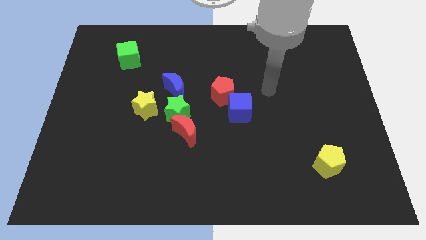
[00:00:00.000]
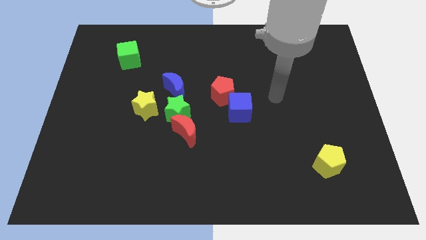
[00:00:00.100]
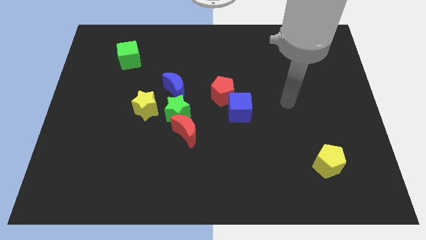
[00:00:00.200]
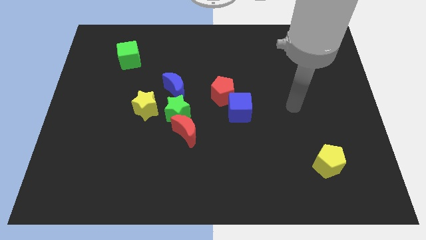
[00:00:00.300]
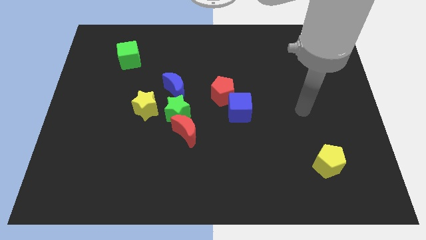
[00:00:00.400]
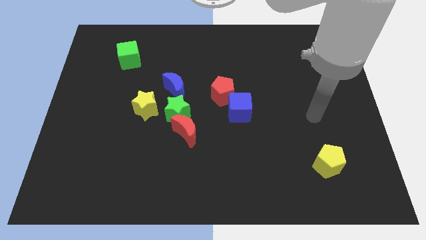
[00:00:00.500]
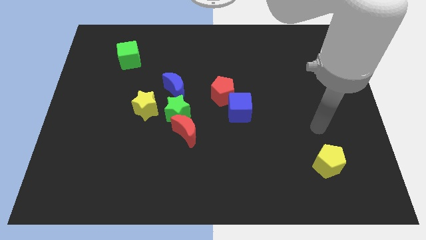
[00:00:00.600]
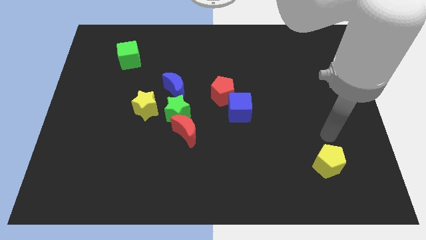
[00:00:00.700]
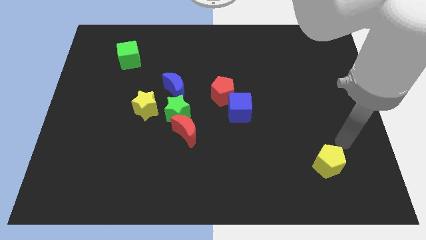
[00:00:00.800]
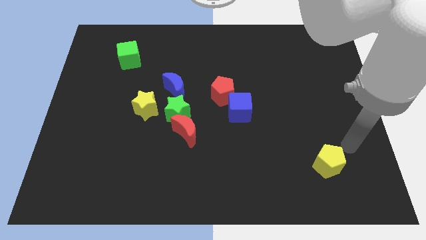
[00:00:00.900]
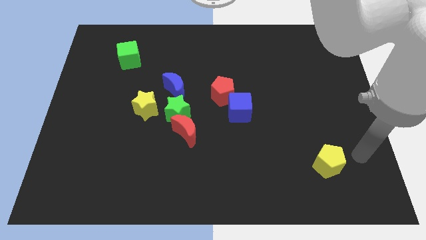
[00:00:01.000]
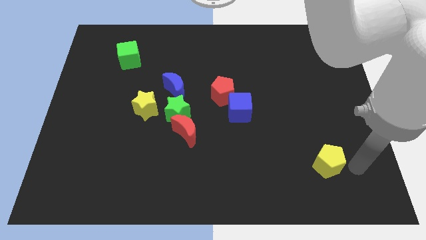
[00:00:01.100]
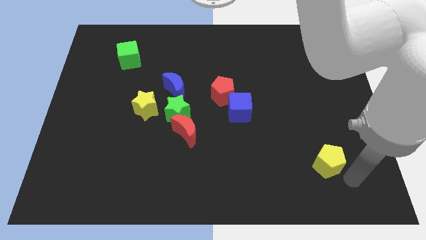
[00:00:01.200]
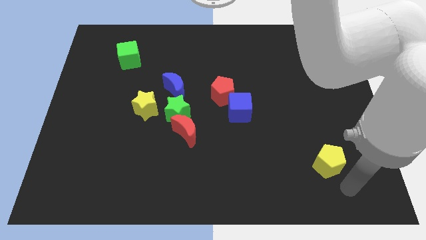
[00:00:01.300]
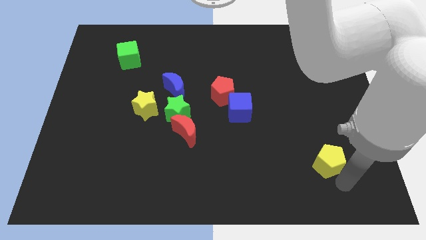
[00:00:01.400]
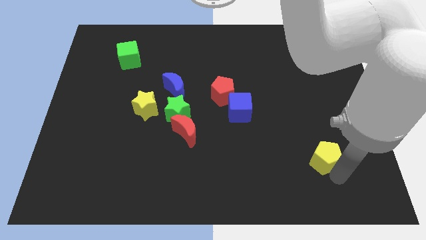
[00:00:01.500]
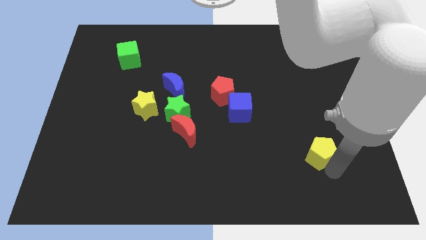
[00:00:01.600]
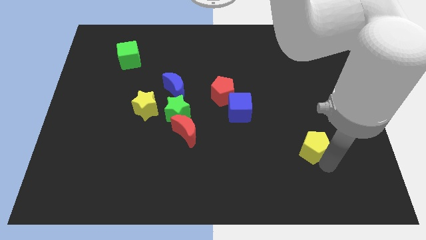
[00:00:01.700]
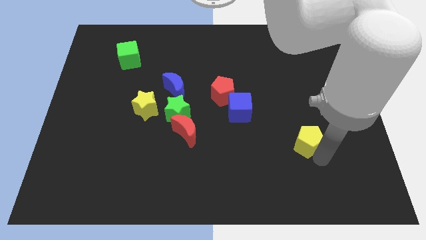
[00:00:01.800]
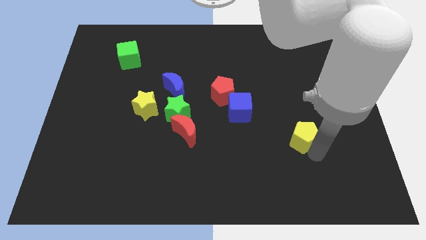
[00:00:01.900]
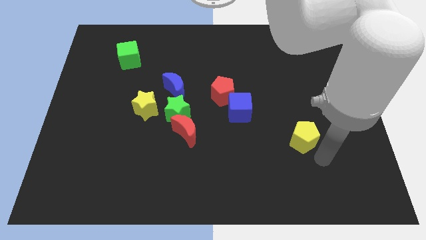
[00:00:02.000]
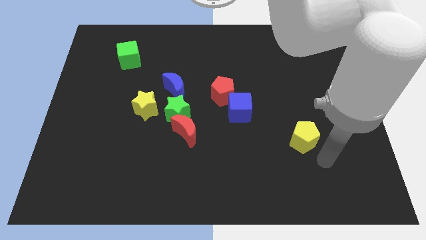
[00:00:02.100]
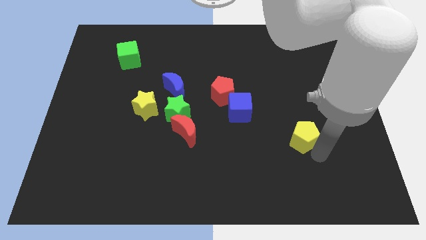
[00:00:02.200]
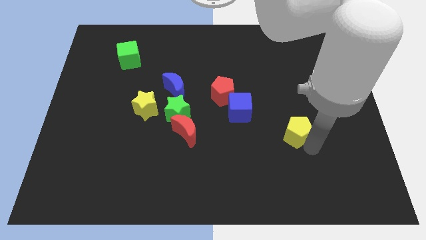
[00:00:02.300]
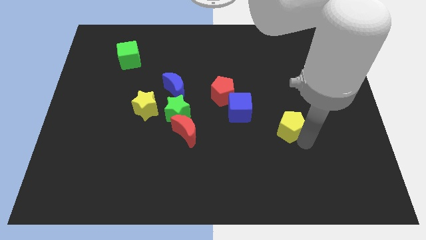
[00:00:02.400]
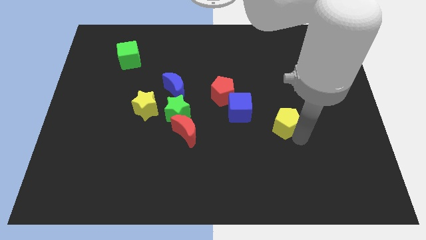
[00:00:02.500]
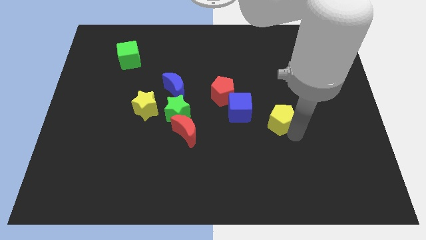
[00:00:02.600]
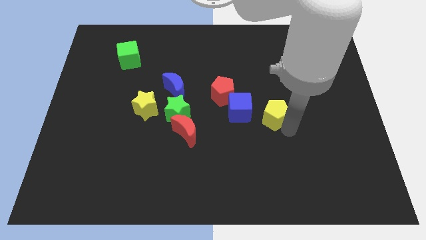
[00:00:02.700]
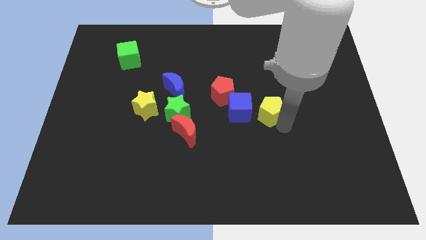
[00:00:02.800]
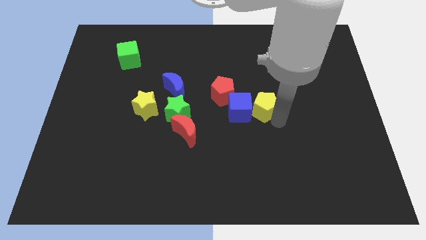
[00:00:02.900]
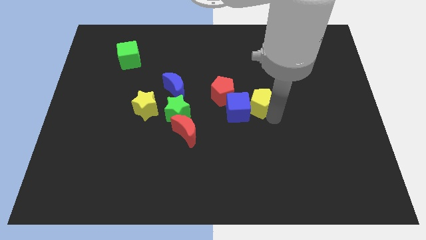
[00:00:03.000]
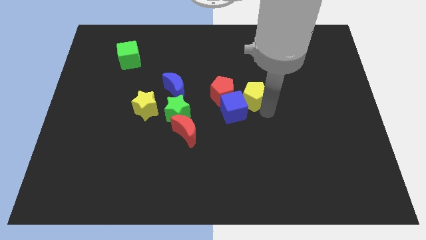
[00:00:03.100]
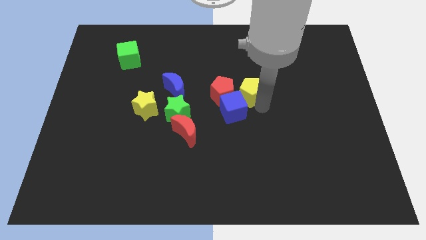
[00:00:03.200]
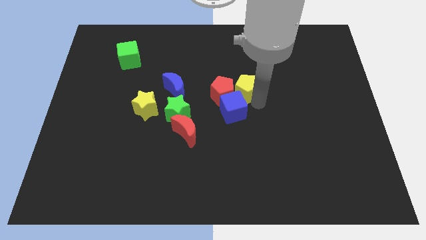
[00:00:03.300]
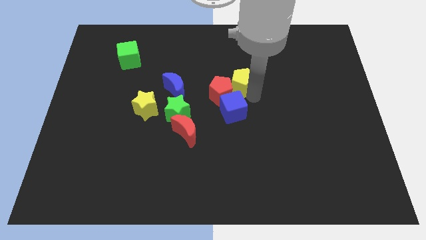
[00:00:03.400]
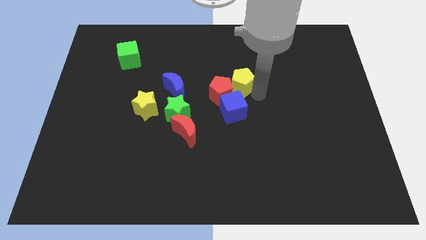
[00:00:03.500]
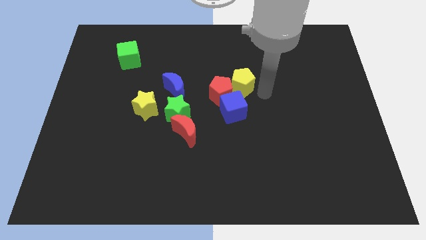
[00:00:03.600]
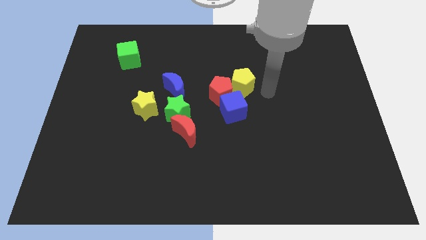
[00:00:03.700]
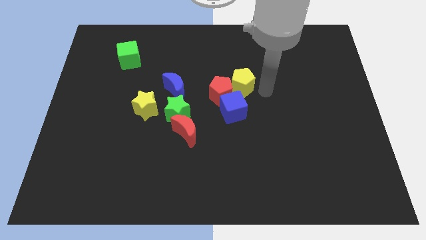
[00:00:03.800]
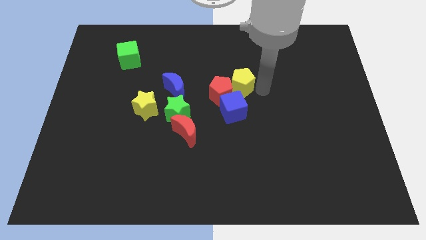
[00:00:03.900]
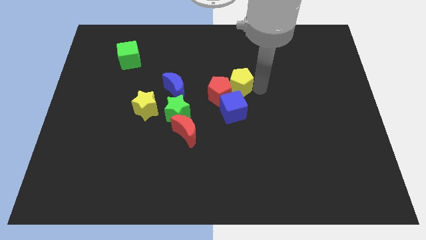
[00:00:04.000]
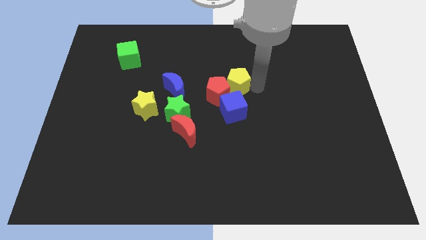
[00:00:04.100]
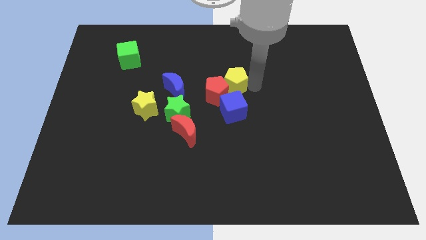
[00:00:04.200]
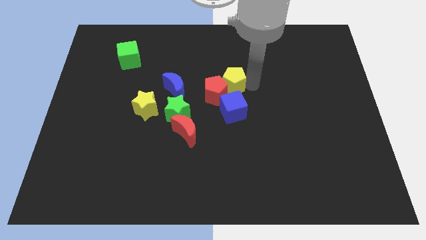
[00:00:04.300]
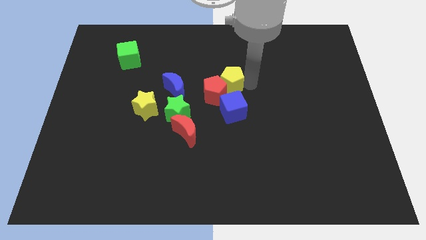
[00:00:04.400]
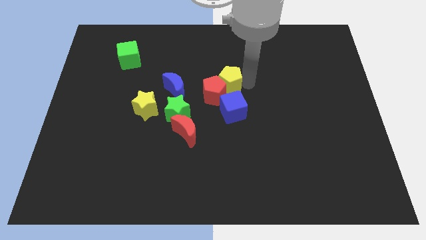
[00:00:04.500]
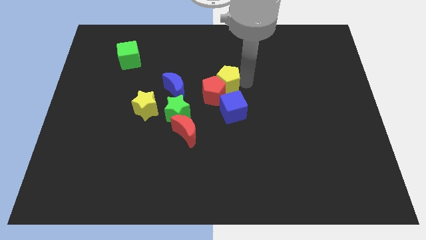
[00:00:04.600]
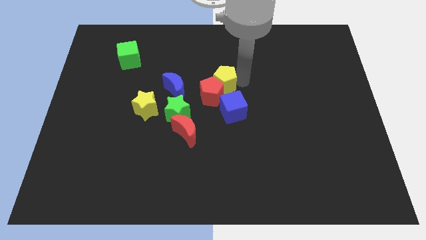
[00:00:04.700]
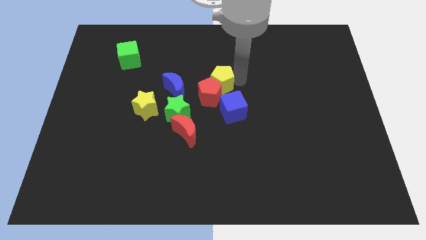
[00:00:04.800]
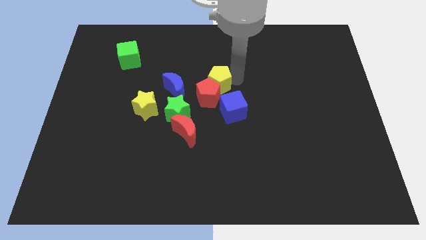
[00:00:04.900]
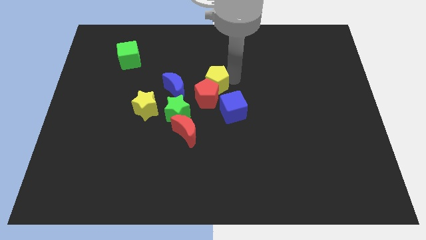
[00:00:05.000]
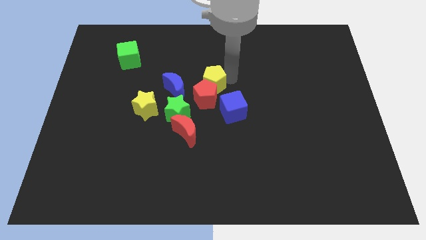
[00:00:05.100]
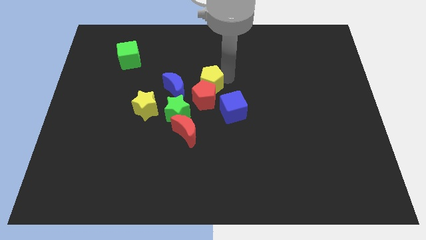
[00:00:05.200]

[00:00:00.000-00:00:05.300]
put the yellow pentagon to the top right side of the blue moon

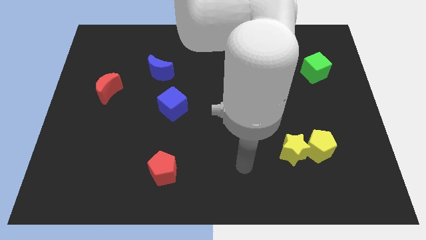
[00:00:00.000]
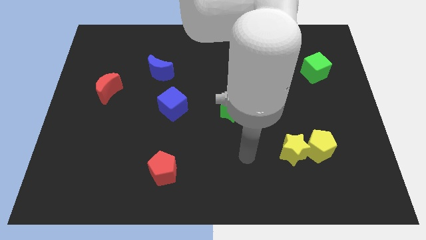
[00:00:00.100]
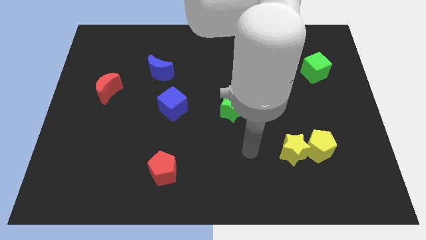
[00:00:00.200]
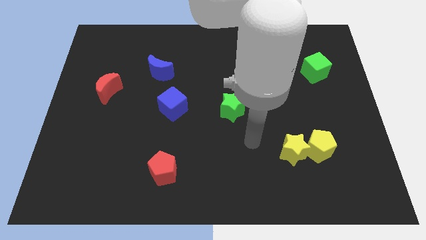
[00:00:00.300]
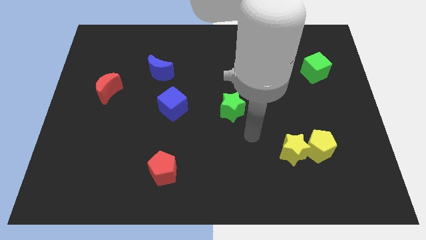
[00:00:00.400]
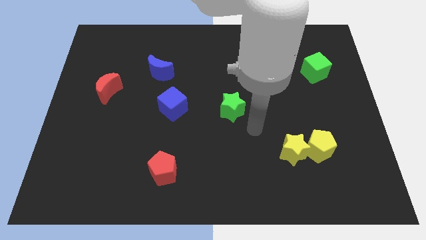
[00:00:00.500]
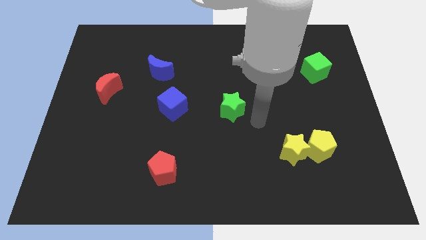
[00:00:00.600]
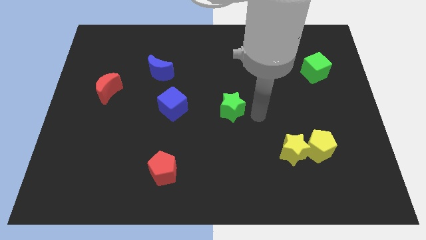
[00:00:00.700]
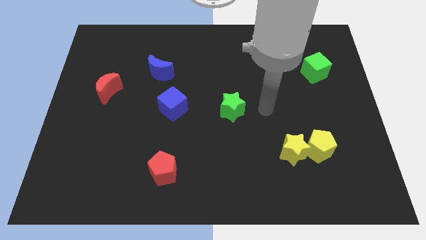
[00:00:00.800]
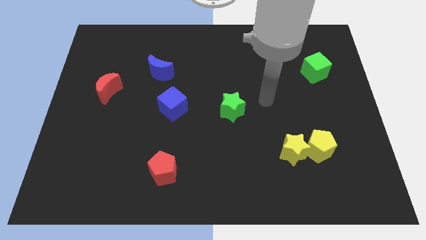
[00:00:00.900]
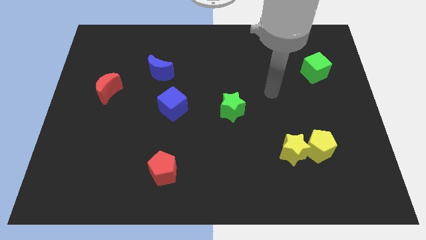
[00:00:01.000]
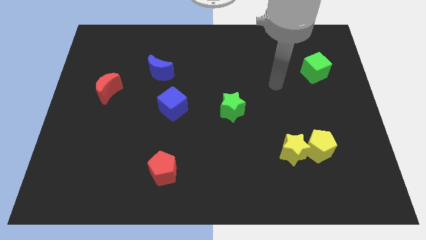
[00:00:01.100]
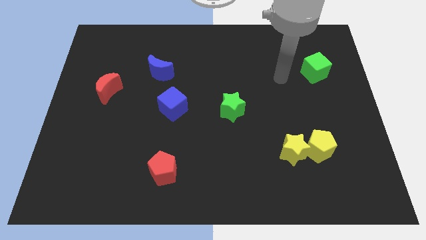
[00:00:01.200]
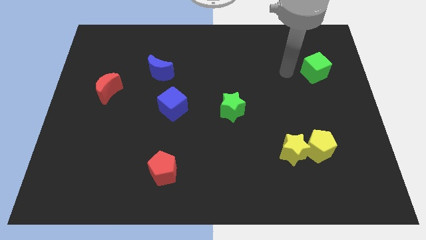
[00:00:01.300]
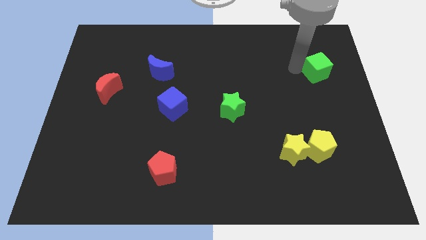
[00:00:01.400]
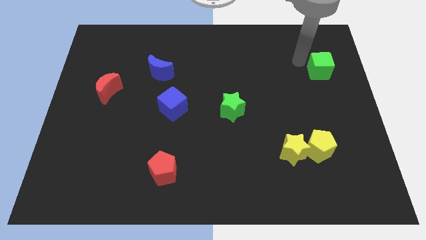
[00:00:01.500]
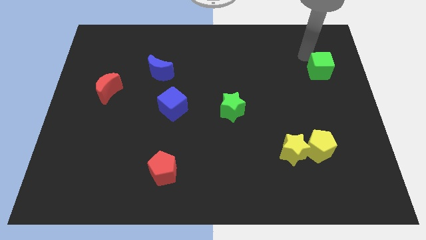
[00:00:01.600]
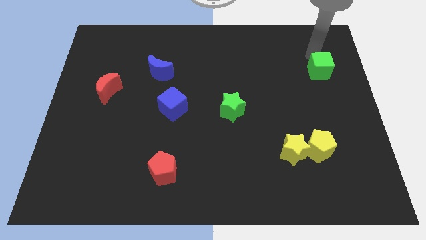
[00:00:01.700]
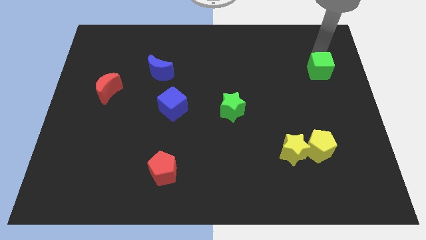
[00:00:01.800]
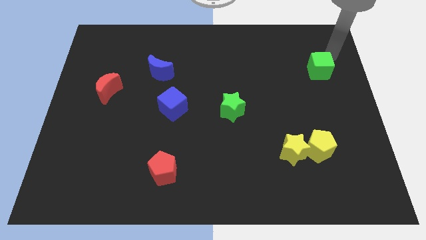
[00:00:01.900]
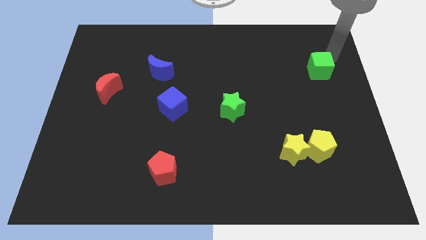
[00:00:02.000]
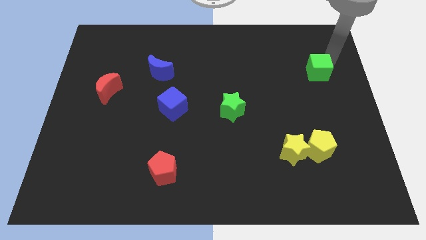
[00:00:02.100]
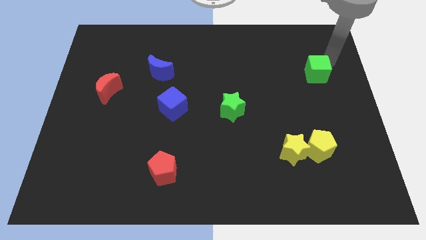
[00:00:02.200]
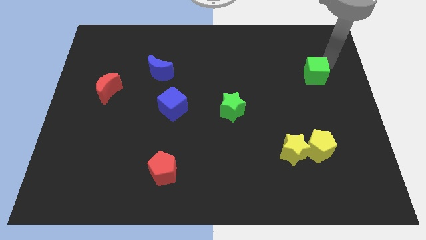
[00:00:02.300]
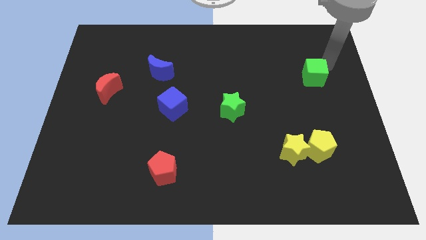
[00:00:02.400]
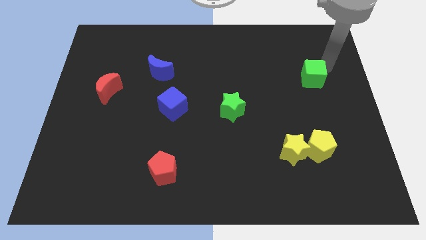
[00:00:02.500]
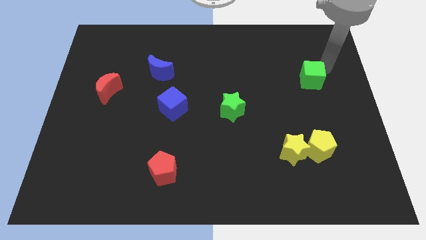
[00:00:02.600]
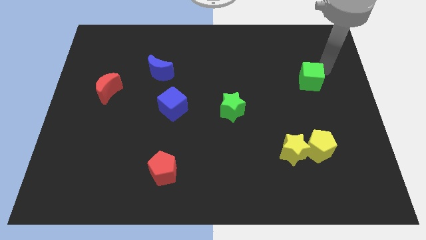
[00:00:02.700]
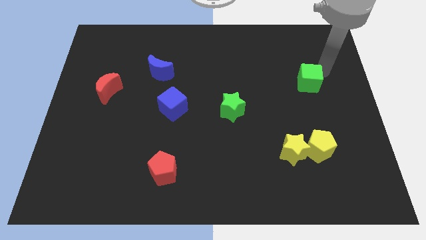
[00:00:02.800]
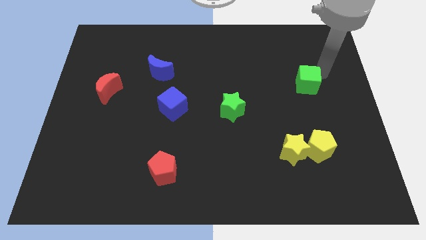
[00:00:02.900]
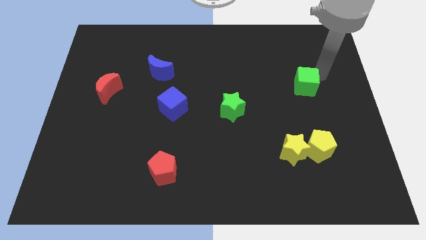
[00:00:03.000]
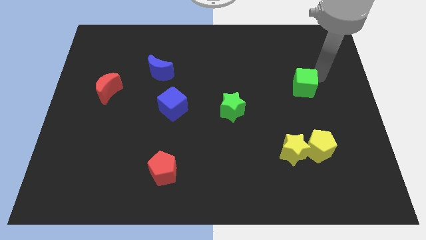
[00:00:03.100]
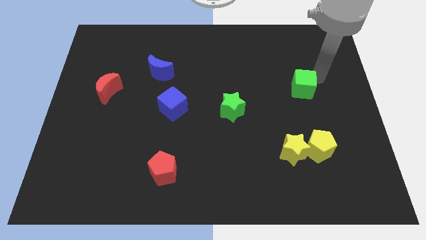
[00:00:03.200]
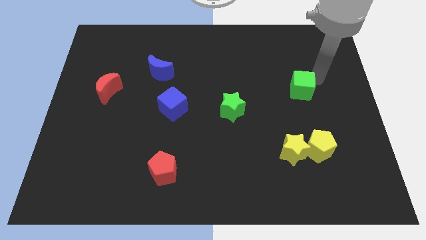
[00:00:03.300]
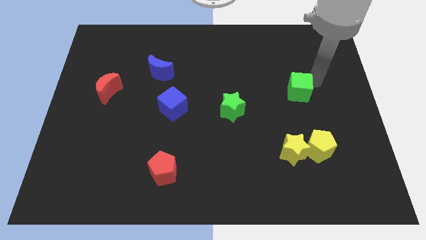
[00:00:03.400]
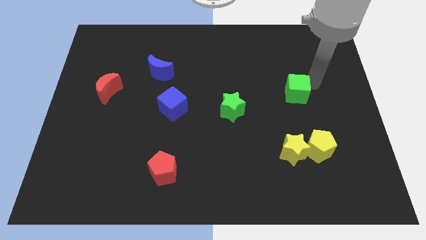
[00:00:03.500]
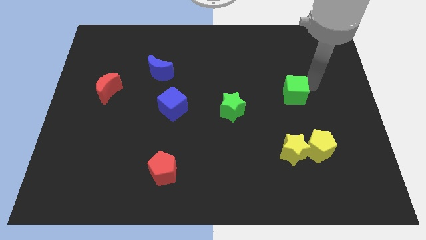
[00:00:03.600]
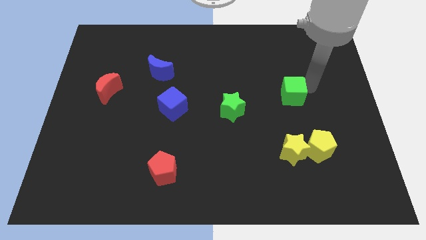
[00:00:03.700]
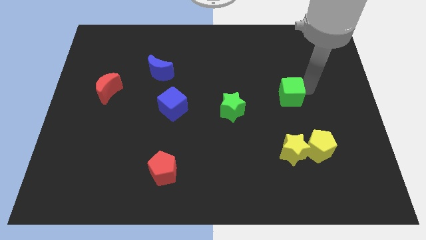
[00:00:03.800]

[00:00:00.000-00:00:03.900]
move the green cube to the right side of the green star
